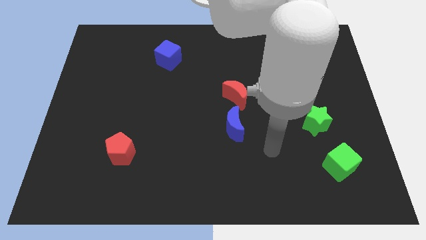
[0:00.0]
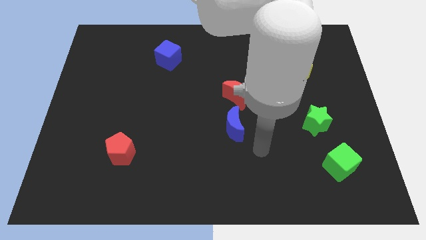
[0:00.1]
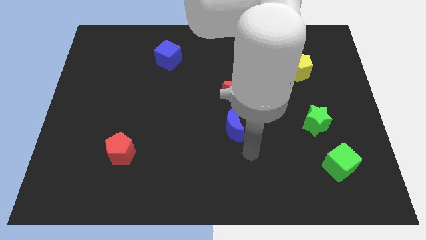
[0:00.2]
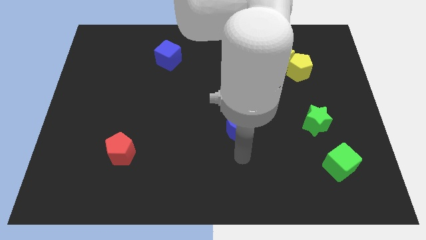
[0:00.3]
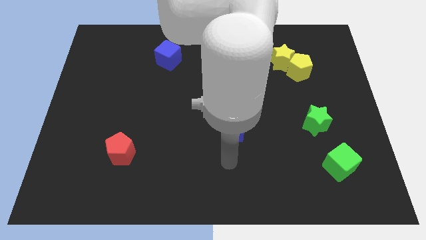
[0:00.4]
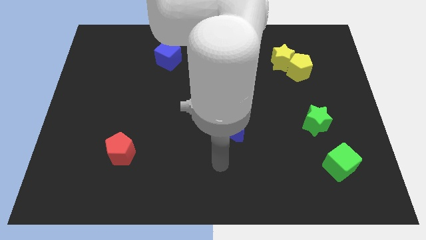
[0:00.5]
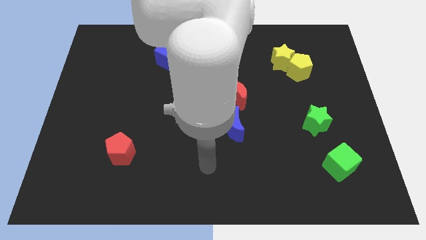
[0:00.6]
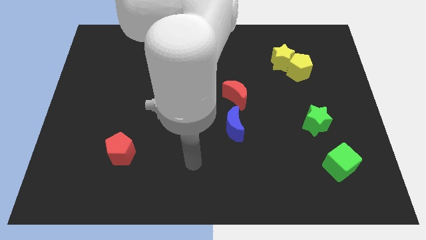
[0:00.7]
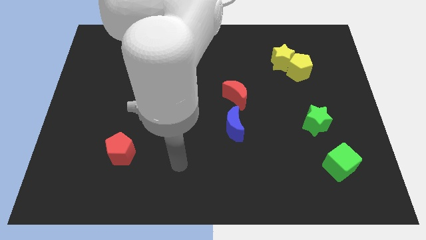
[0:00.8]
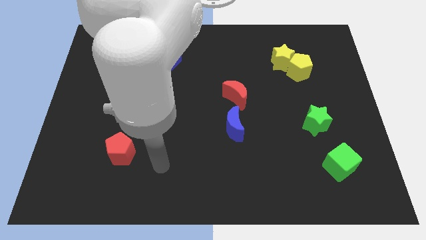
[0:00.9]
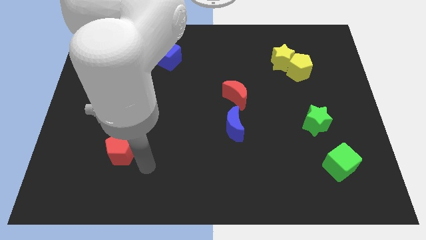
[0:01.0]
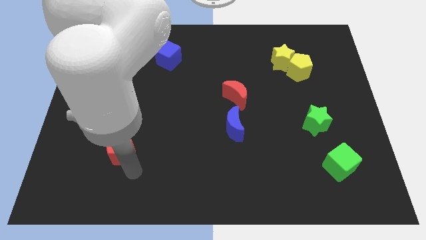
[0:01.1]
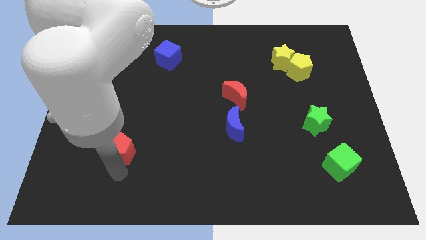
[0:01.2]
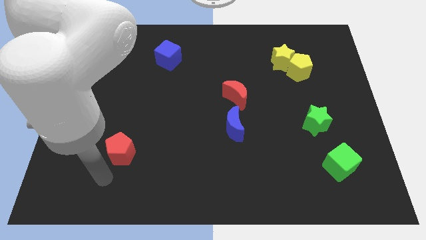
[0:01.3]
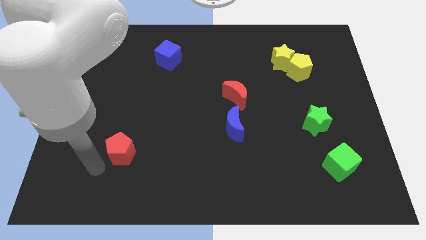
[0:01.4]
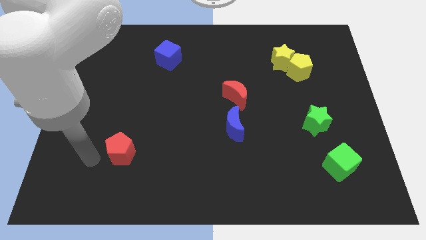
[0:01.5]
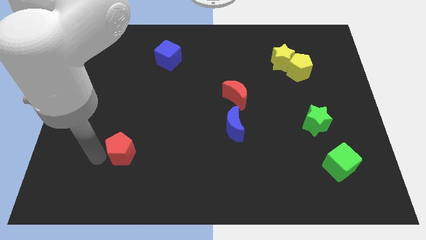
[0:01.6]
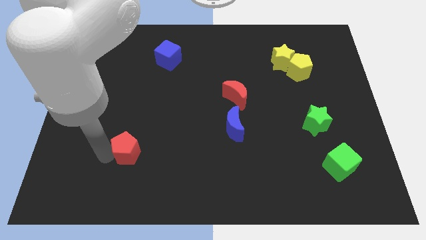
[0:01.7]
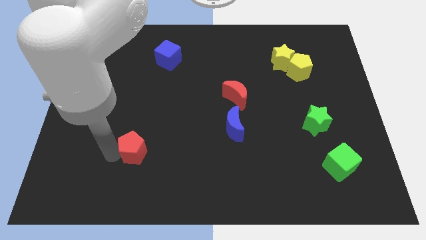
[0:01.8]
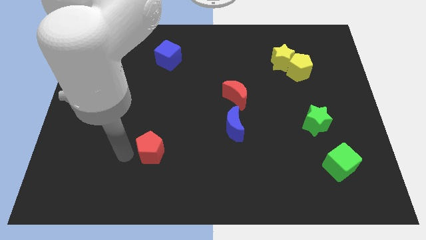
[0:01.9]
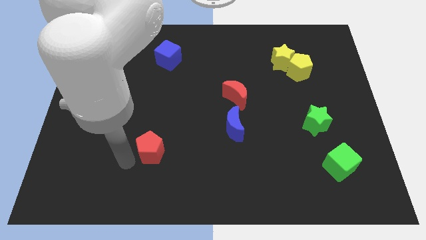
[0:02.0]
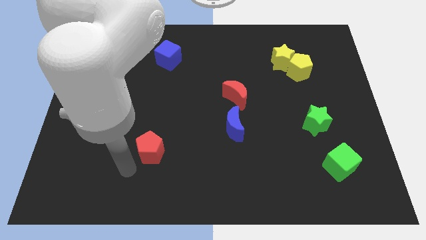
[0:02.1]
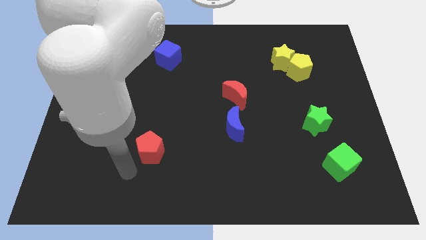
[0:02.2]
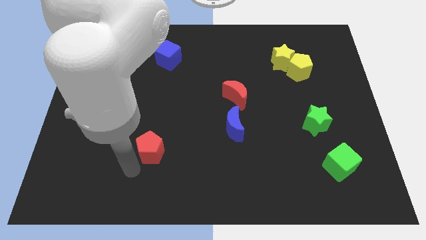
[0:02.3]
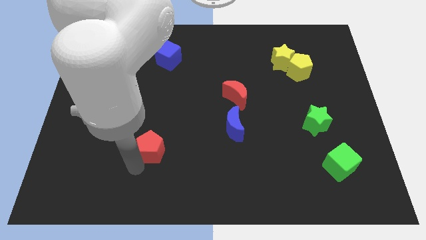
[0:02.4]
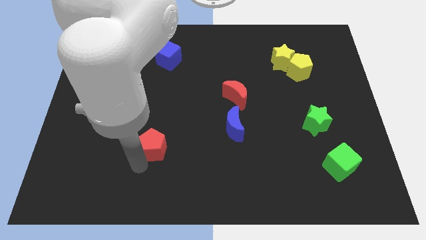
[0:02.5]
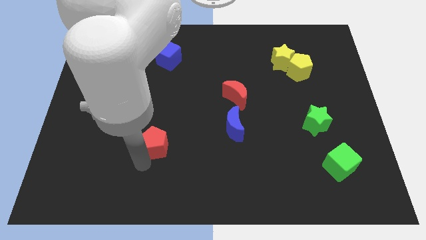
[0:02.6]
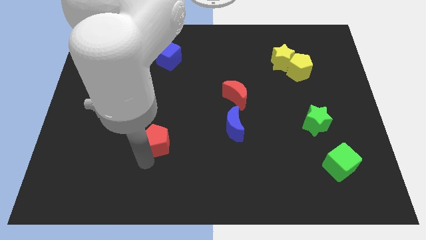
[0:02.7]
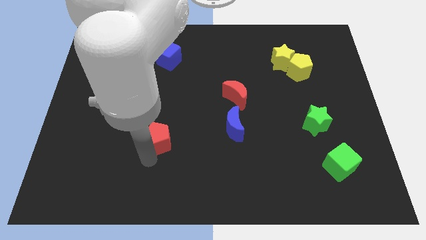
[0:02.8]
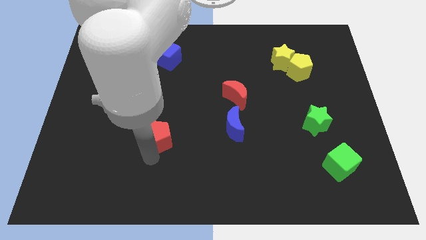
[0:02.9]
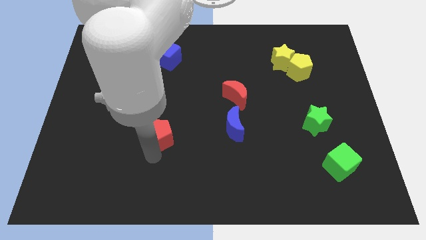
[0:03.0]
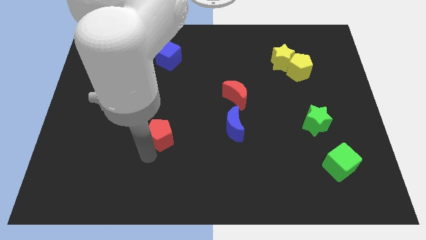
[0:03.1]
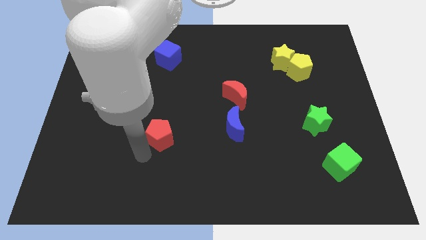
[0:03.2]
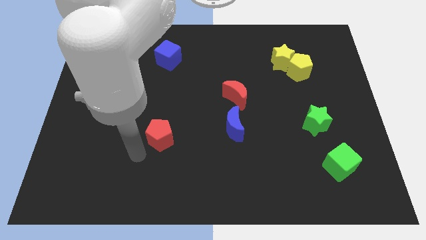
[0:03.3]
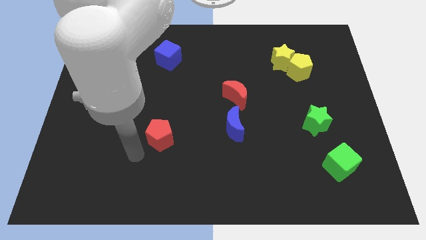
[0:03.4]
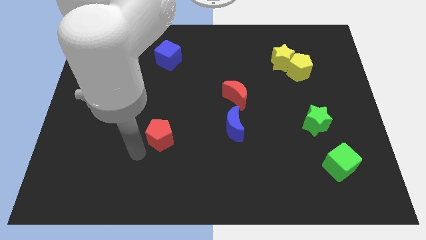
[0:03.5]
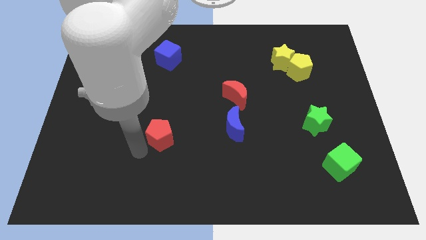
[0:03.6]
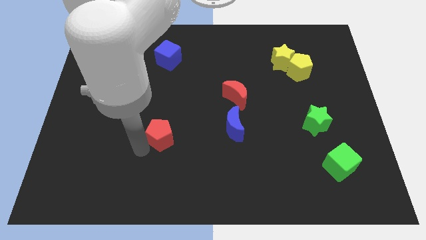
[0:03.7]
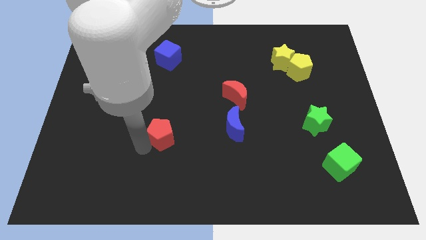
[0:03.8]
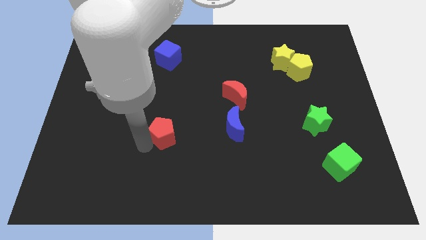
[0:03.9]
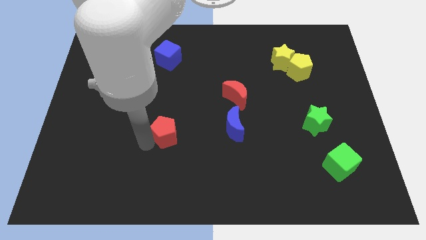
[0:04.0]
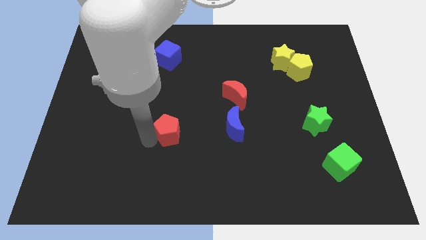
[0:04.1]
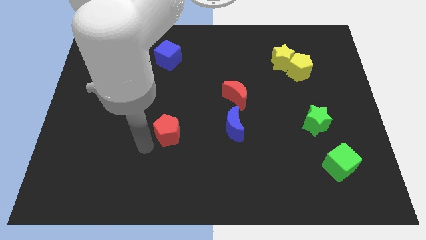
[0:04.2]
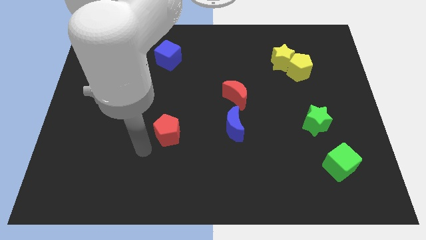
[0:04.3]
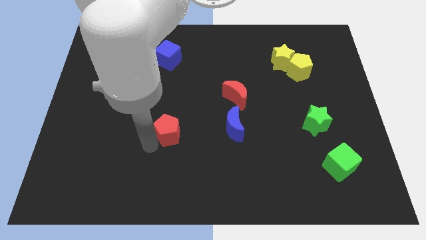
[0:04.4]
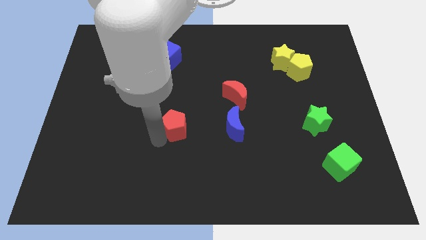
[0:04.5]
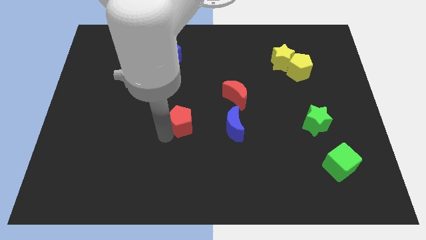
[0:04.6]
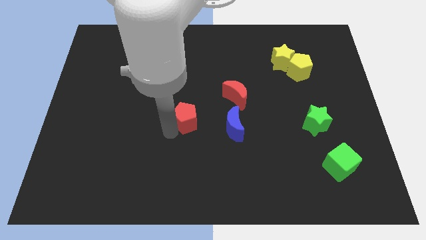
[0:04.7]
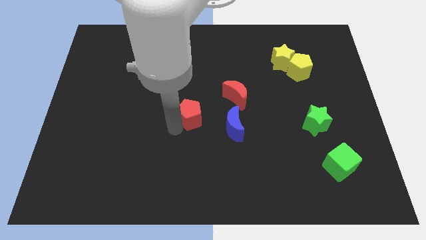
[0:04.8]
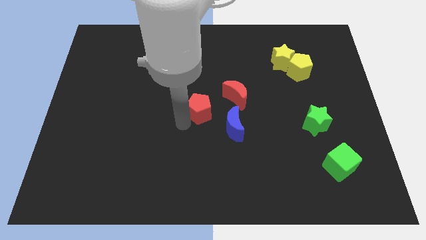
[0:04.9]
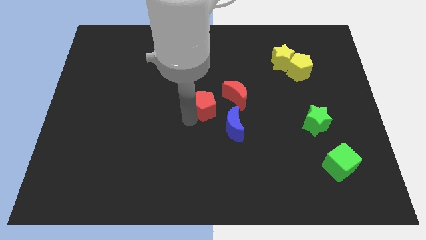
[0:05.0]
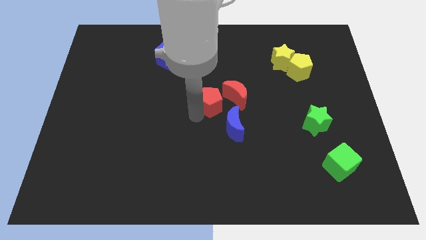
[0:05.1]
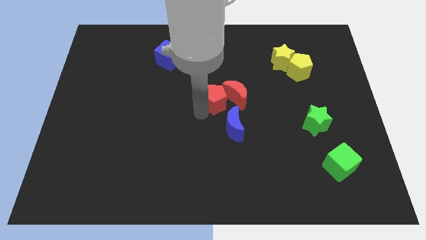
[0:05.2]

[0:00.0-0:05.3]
slide the red pentagon to the top of the blue moon
